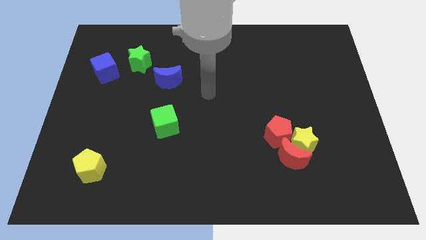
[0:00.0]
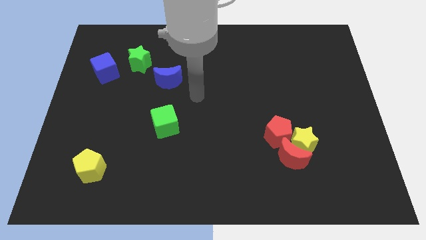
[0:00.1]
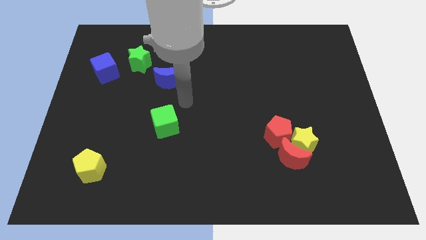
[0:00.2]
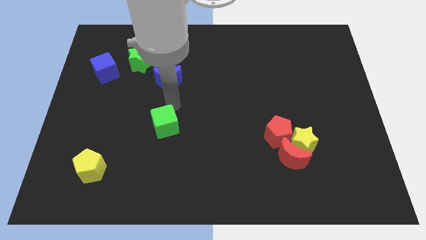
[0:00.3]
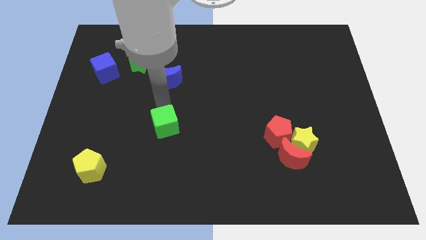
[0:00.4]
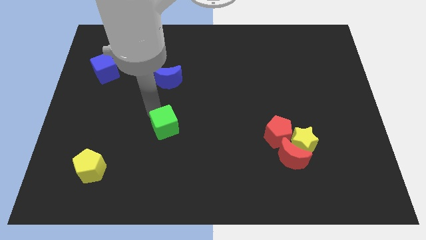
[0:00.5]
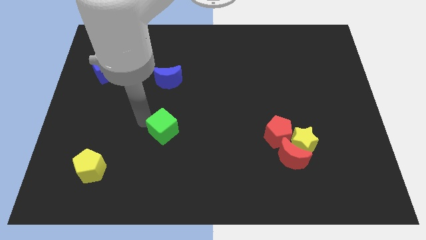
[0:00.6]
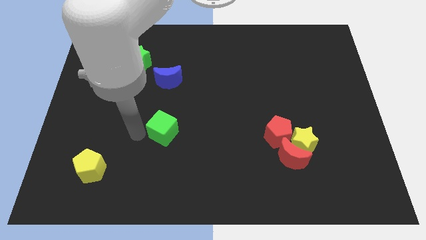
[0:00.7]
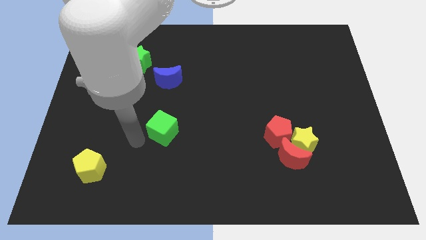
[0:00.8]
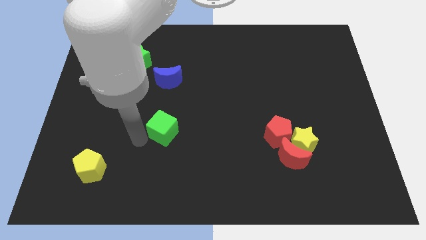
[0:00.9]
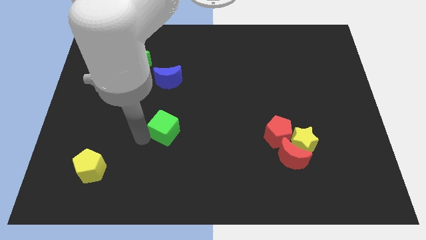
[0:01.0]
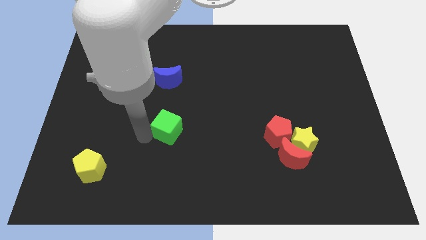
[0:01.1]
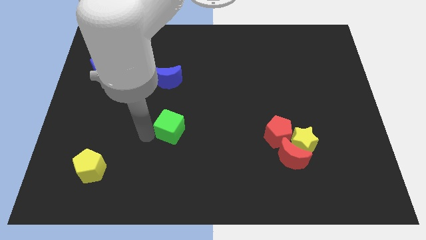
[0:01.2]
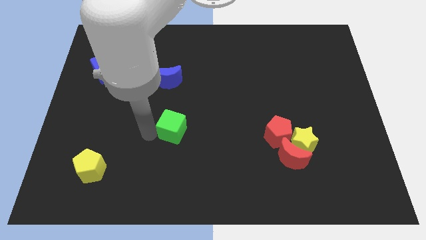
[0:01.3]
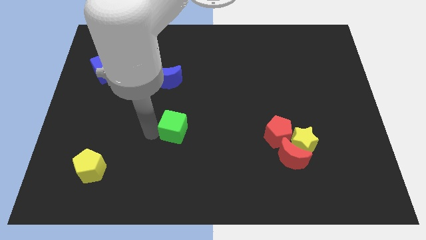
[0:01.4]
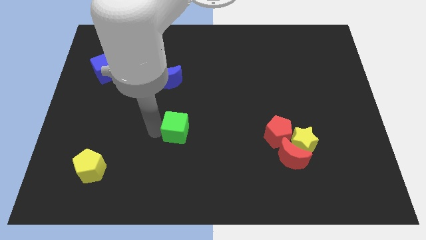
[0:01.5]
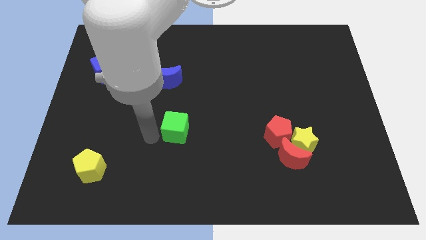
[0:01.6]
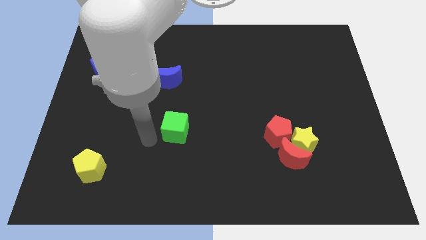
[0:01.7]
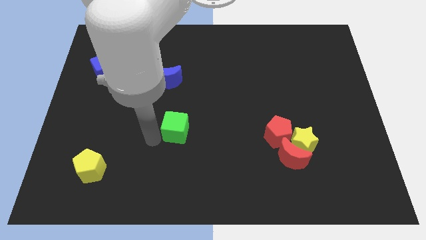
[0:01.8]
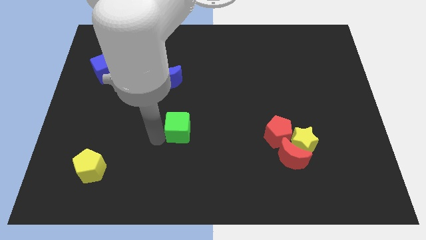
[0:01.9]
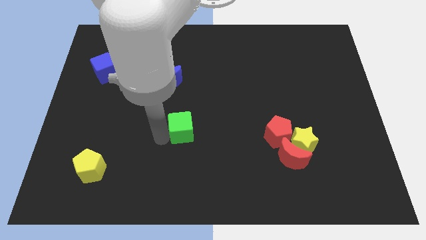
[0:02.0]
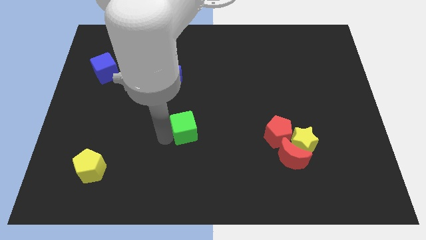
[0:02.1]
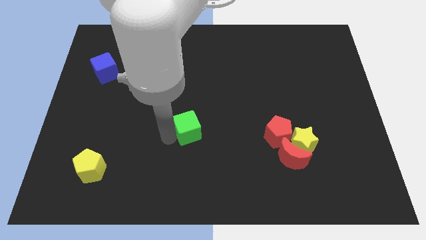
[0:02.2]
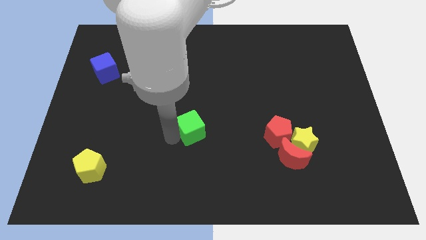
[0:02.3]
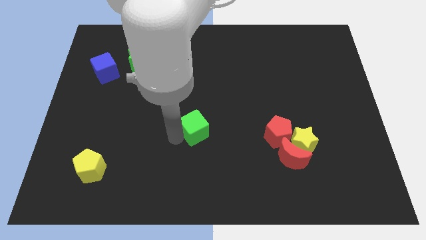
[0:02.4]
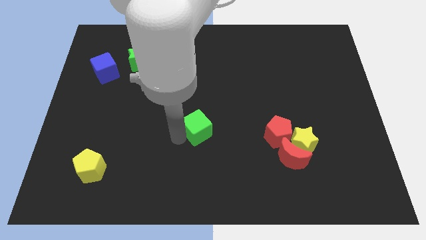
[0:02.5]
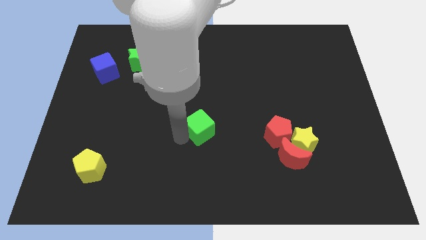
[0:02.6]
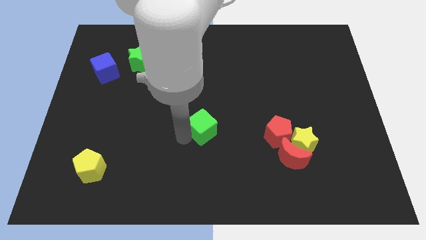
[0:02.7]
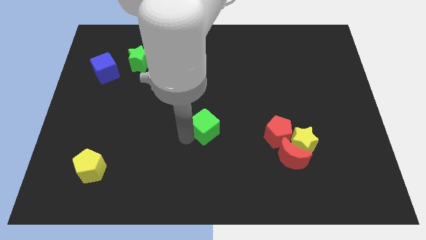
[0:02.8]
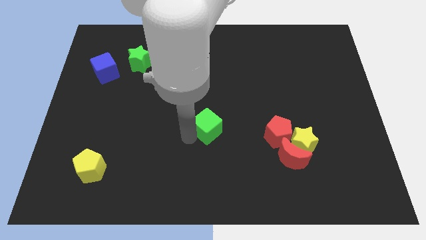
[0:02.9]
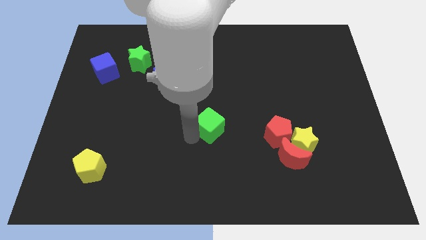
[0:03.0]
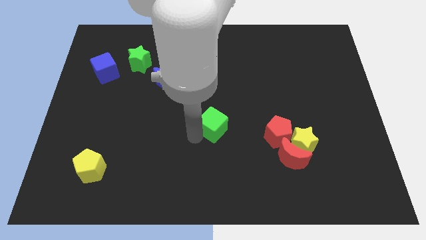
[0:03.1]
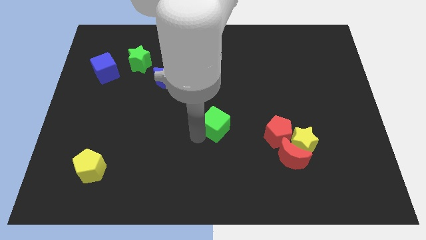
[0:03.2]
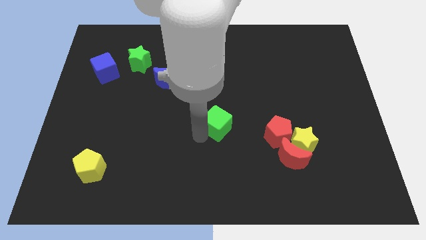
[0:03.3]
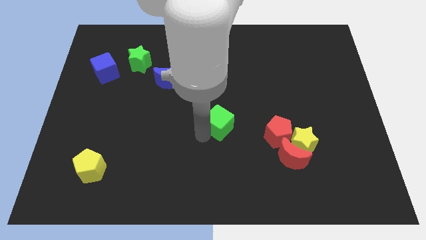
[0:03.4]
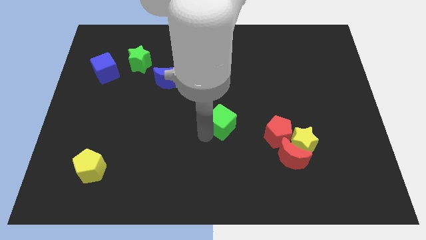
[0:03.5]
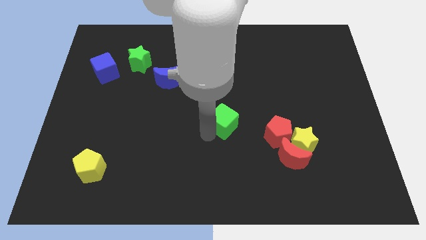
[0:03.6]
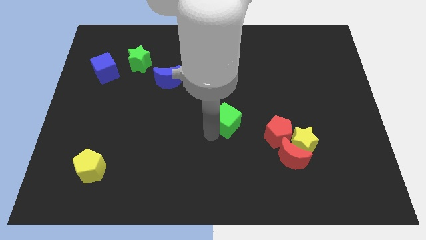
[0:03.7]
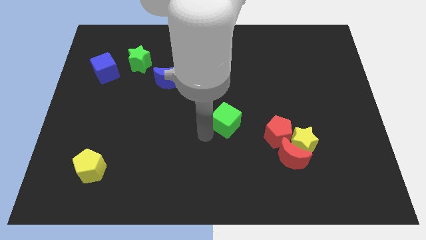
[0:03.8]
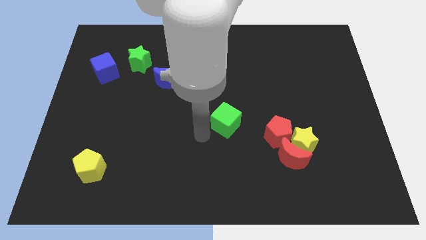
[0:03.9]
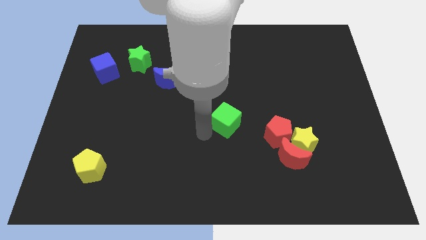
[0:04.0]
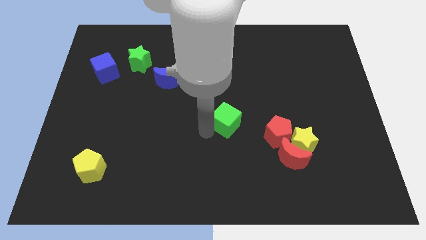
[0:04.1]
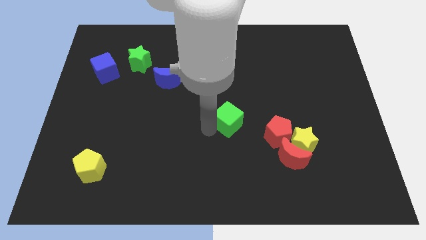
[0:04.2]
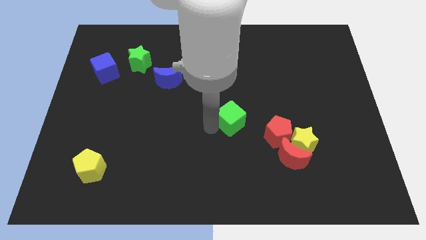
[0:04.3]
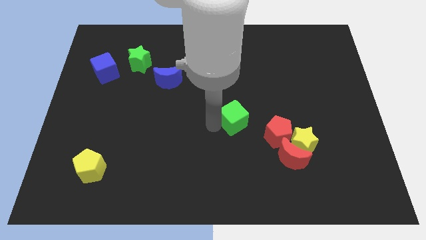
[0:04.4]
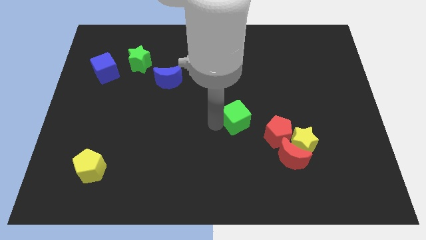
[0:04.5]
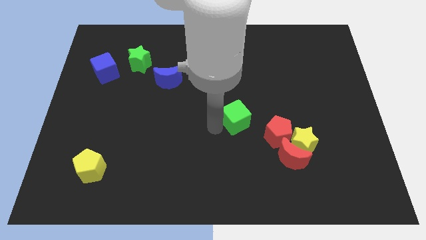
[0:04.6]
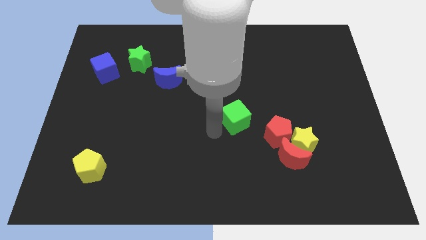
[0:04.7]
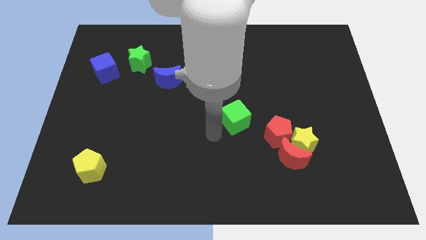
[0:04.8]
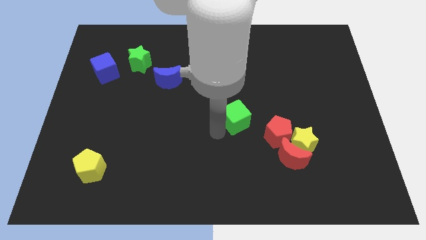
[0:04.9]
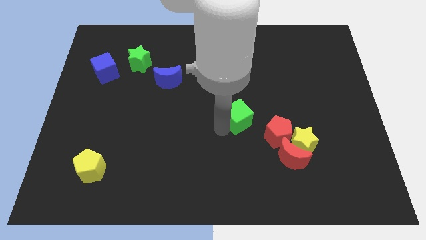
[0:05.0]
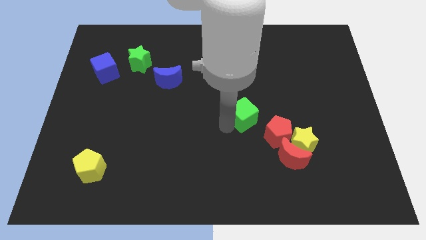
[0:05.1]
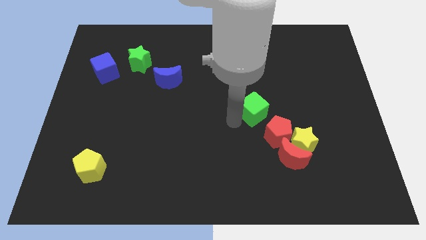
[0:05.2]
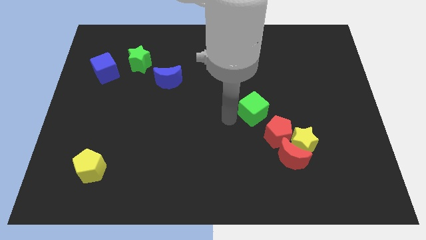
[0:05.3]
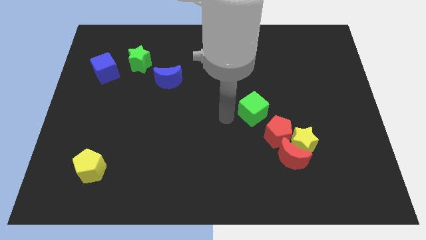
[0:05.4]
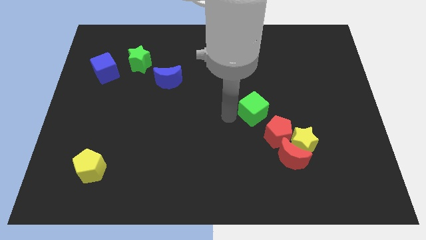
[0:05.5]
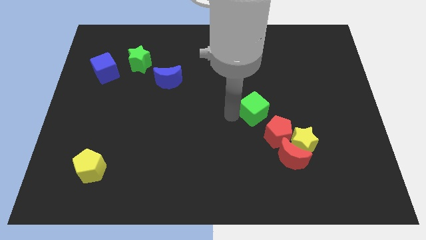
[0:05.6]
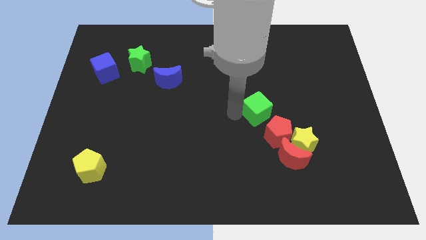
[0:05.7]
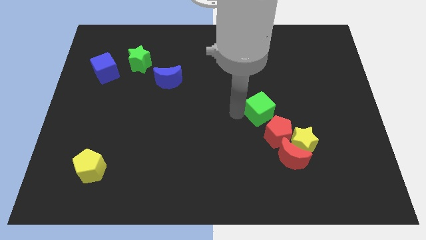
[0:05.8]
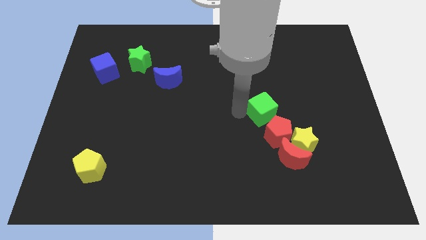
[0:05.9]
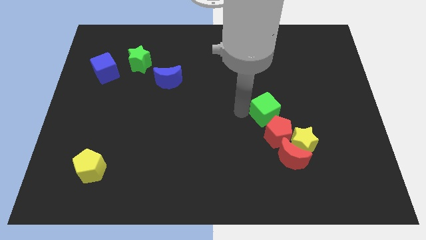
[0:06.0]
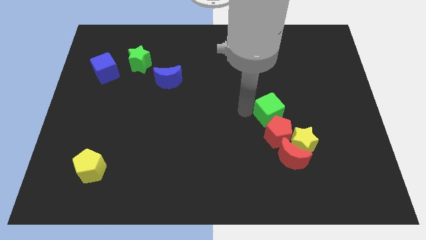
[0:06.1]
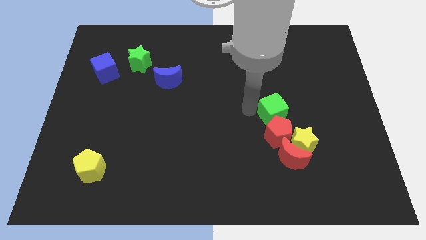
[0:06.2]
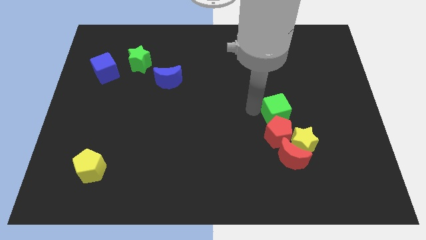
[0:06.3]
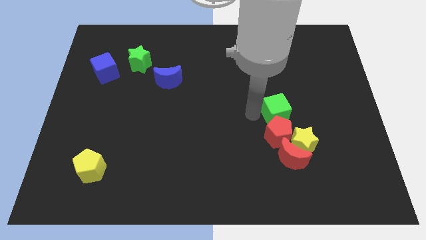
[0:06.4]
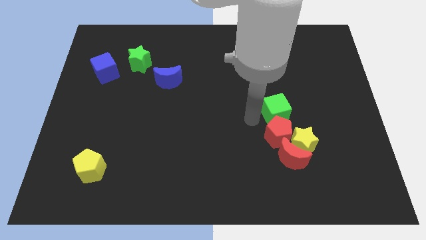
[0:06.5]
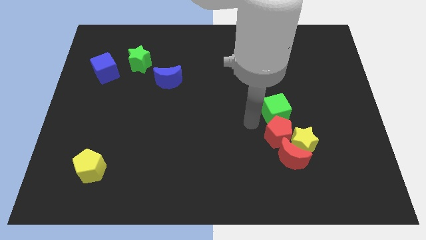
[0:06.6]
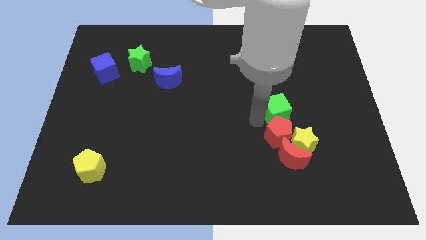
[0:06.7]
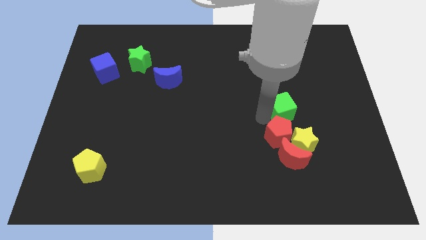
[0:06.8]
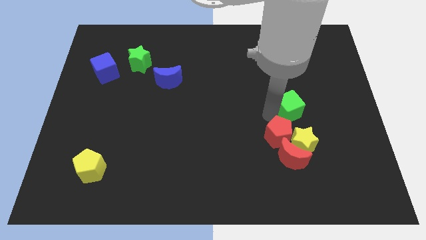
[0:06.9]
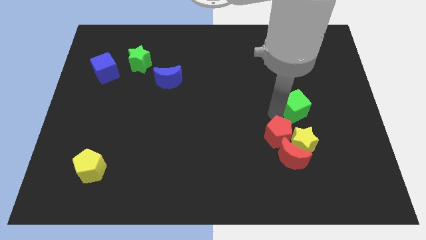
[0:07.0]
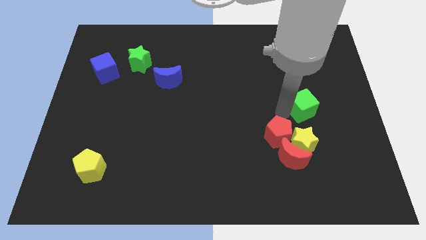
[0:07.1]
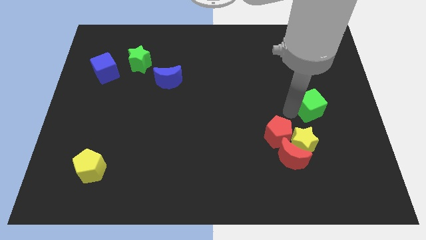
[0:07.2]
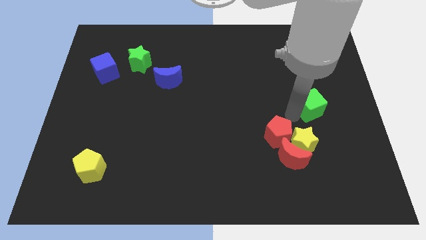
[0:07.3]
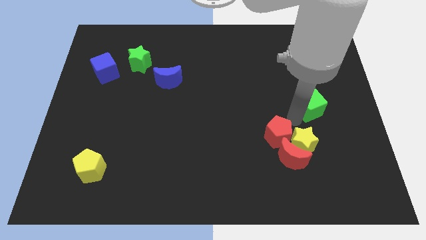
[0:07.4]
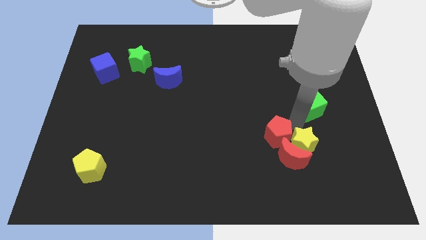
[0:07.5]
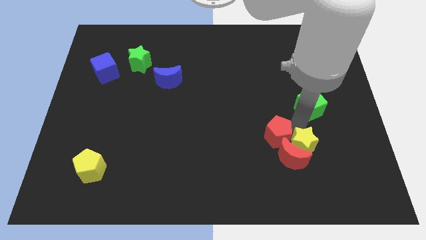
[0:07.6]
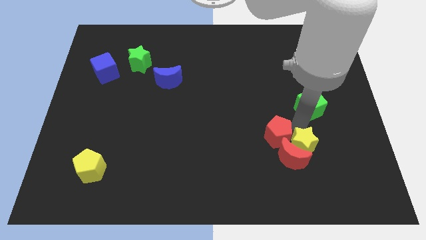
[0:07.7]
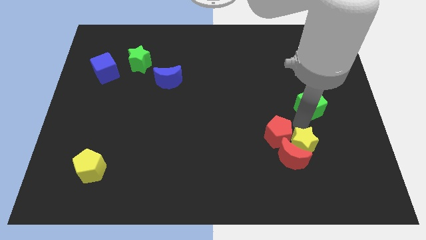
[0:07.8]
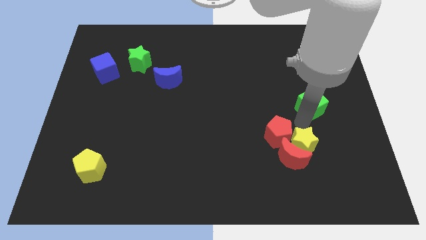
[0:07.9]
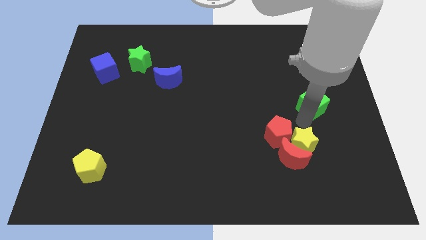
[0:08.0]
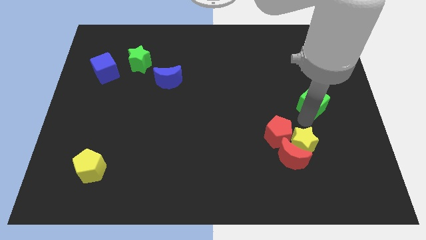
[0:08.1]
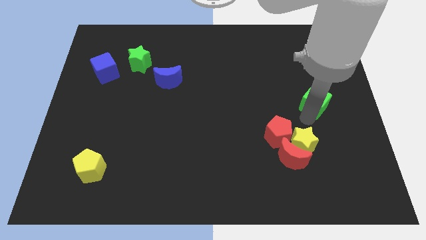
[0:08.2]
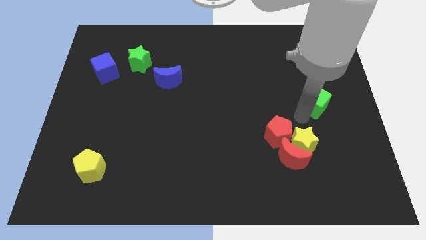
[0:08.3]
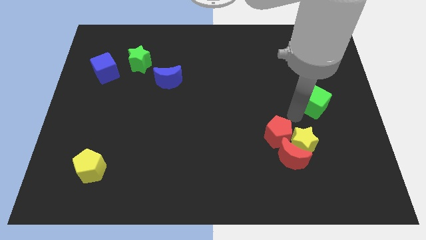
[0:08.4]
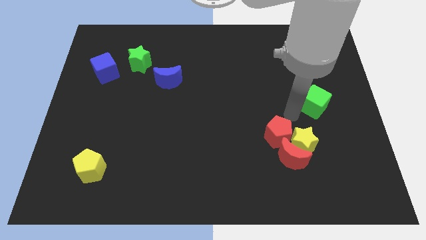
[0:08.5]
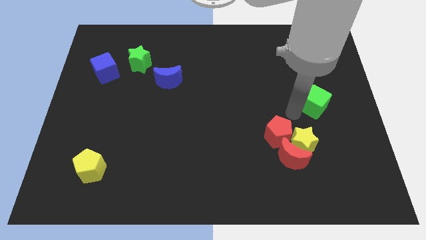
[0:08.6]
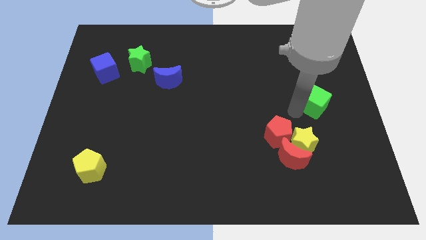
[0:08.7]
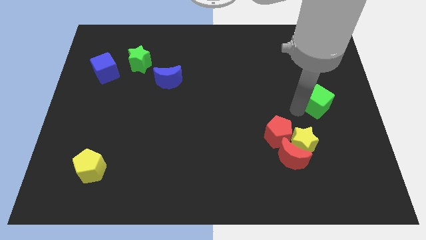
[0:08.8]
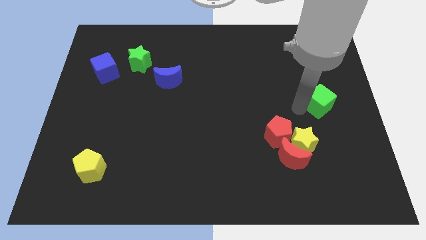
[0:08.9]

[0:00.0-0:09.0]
move the green cube to the right side
